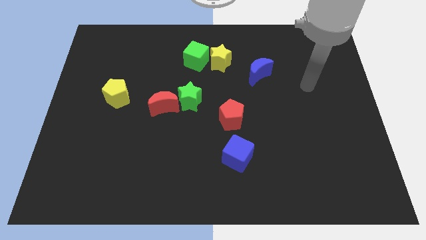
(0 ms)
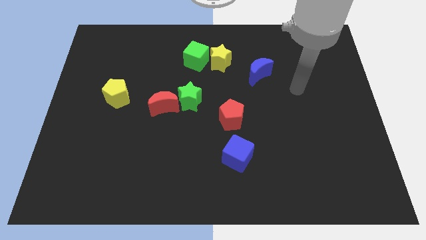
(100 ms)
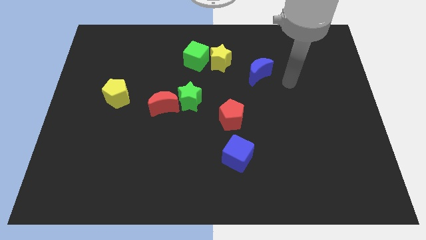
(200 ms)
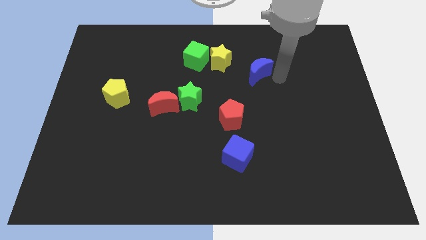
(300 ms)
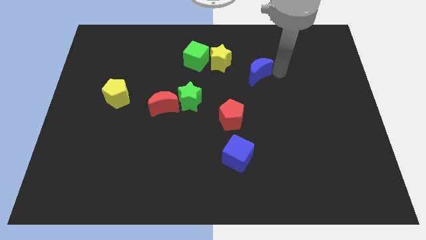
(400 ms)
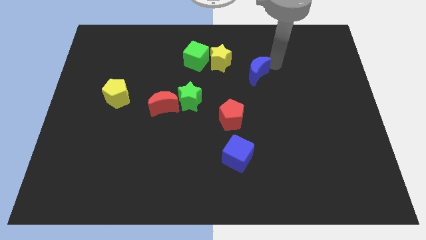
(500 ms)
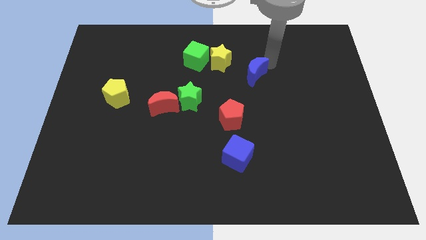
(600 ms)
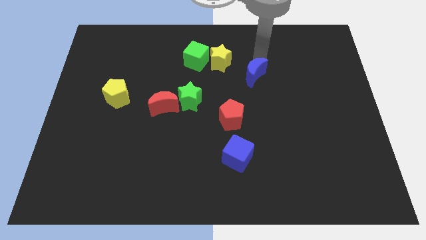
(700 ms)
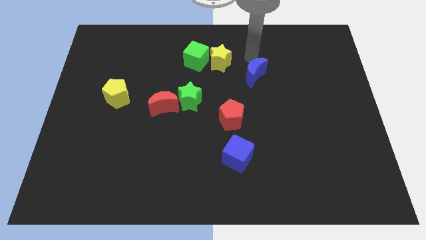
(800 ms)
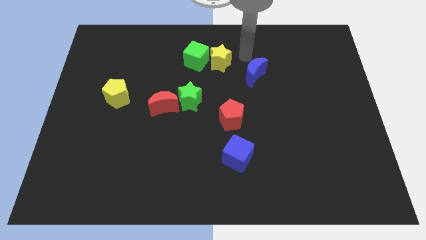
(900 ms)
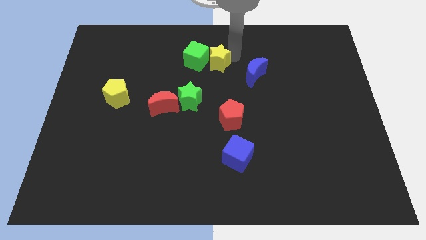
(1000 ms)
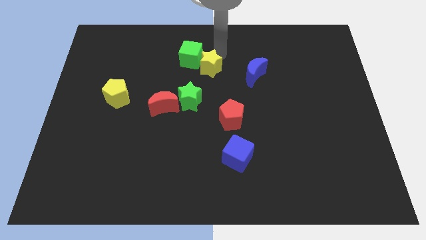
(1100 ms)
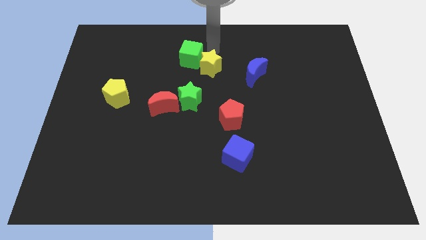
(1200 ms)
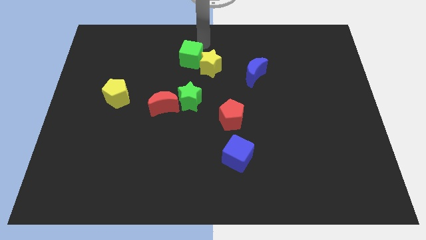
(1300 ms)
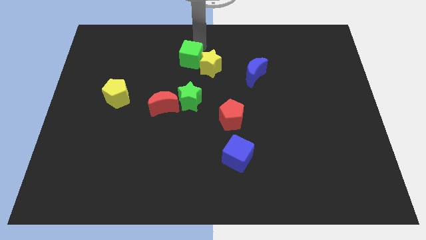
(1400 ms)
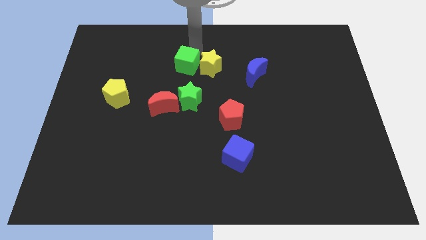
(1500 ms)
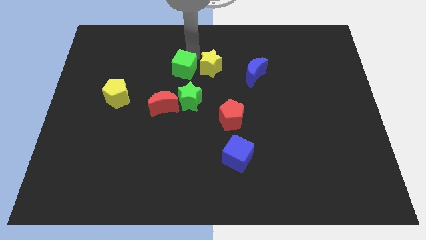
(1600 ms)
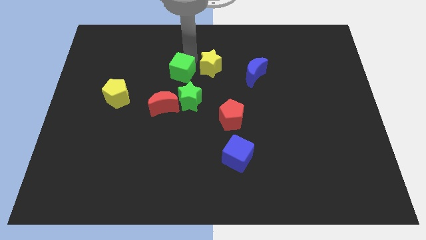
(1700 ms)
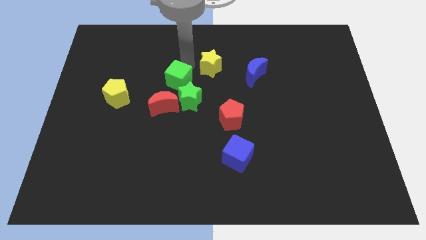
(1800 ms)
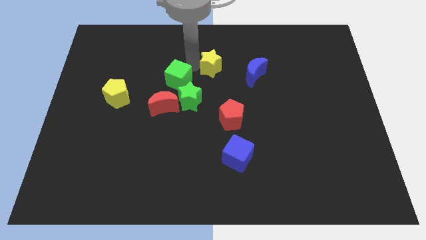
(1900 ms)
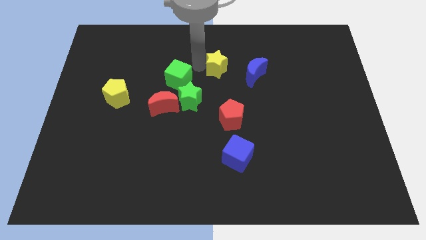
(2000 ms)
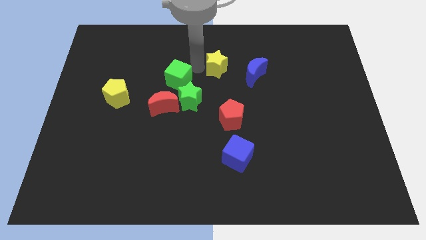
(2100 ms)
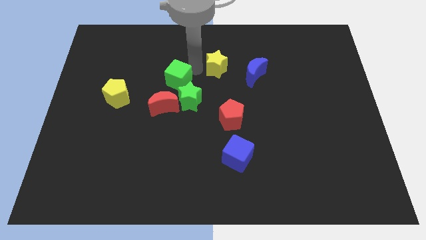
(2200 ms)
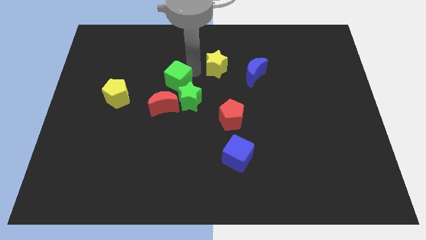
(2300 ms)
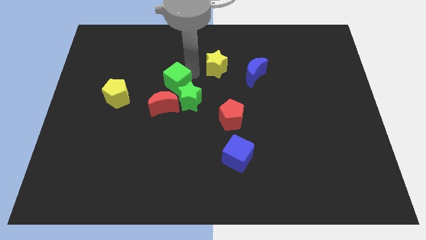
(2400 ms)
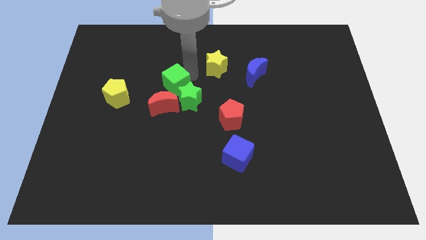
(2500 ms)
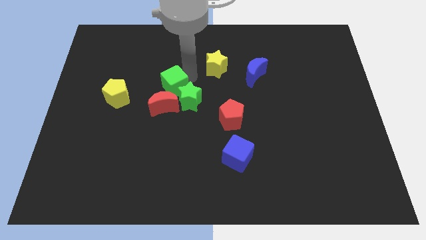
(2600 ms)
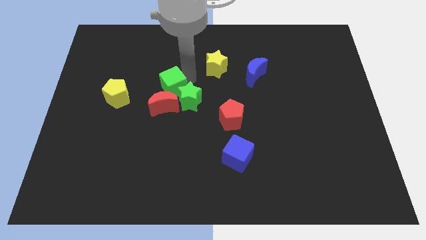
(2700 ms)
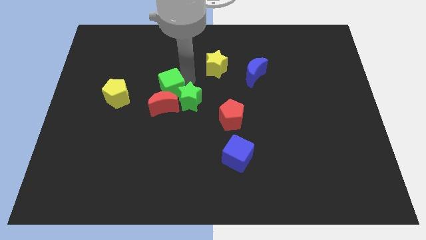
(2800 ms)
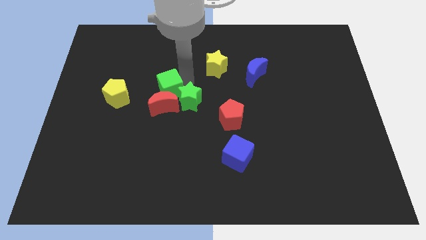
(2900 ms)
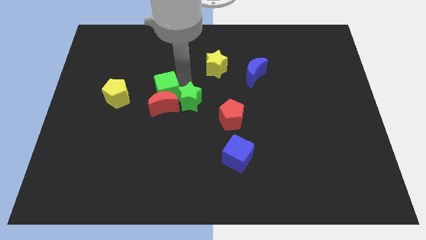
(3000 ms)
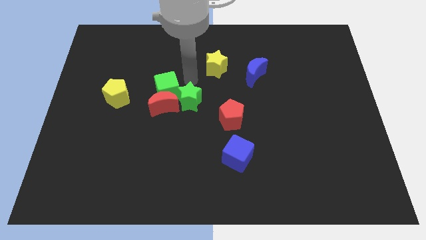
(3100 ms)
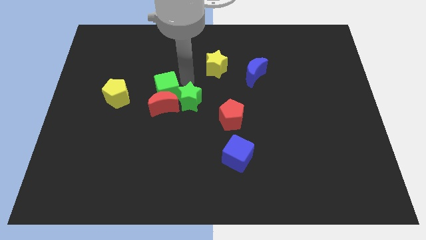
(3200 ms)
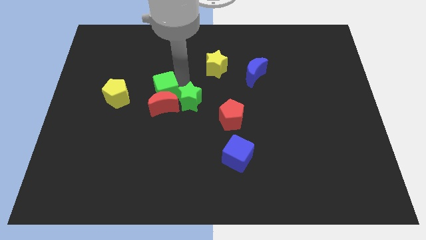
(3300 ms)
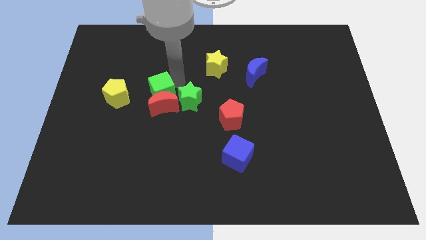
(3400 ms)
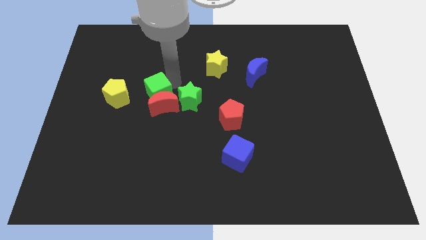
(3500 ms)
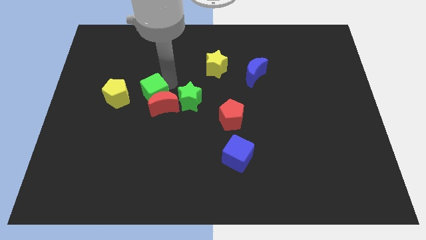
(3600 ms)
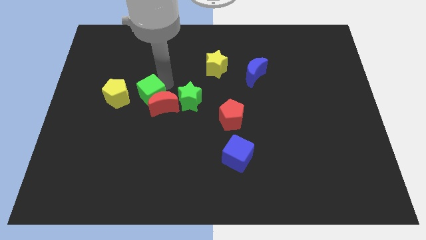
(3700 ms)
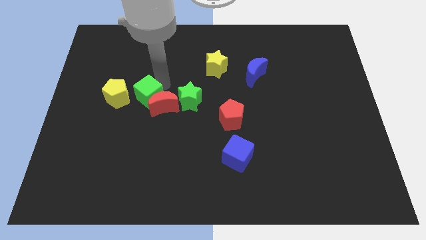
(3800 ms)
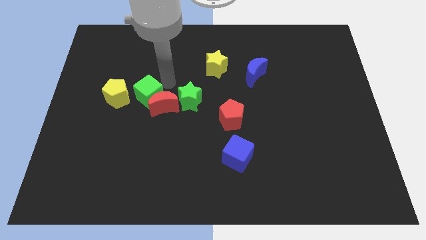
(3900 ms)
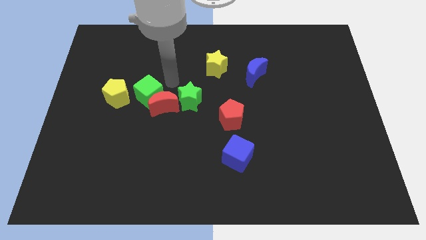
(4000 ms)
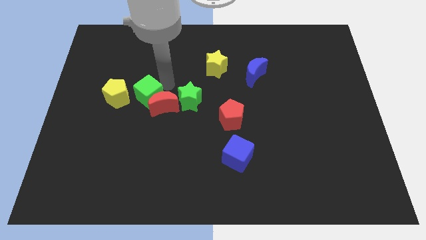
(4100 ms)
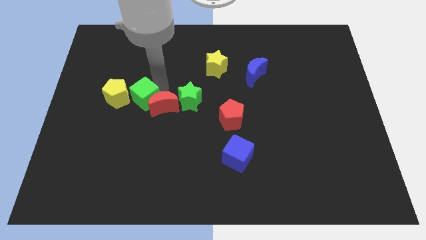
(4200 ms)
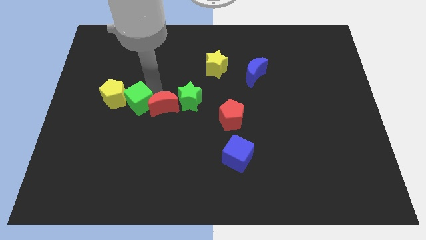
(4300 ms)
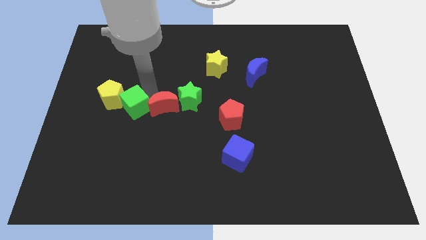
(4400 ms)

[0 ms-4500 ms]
slide the green cube downwards and to the left diagonally

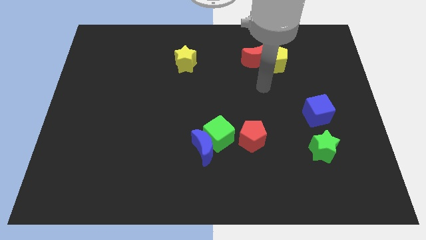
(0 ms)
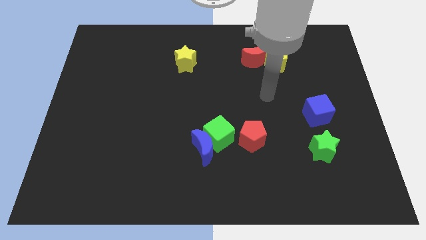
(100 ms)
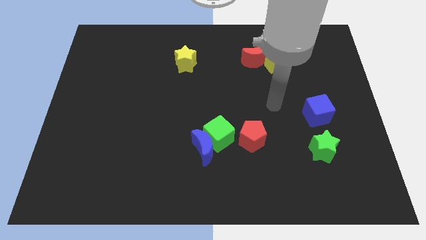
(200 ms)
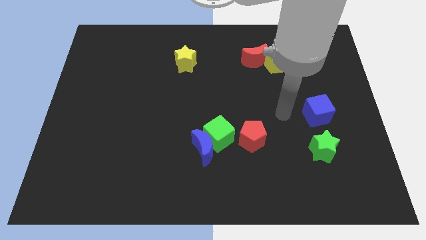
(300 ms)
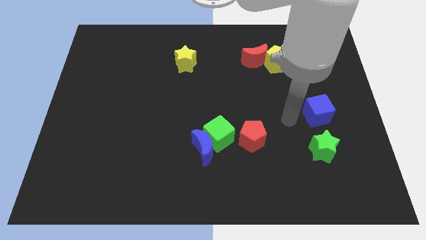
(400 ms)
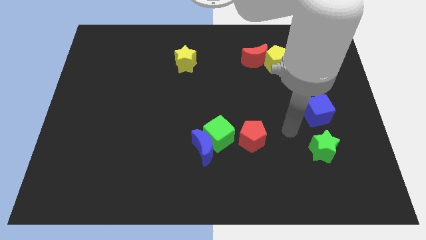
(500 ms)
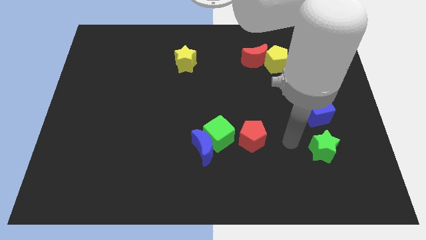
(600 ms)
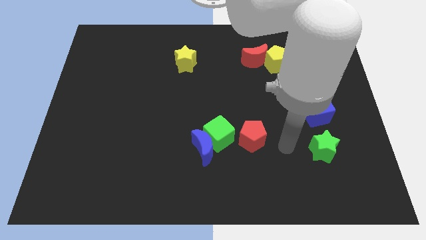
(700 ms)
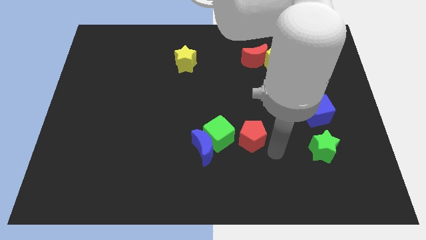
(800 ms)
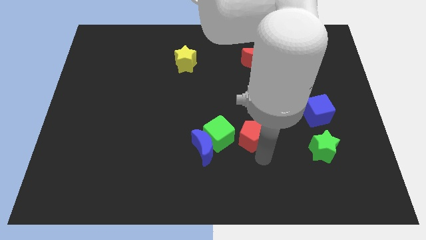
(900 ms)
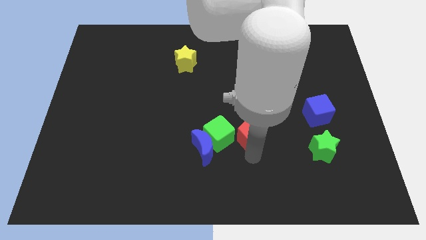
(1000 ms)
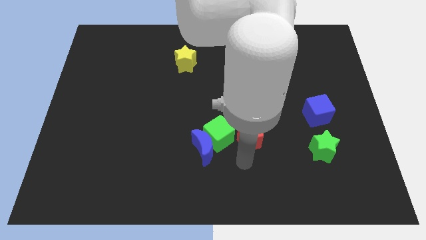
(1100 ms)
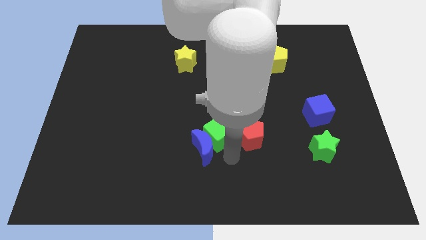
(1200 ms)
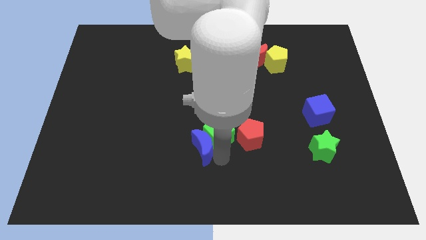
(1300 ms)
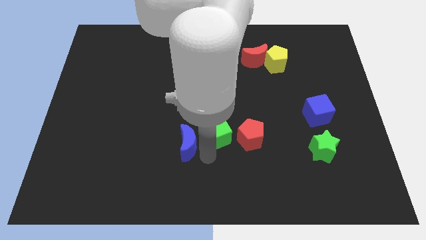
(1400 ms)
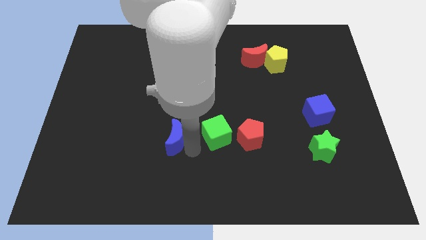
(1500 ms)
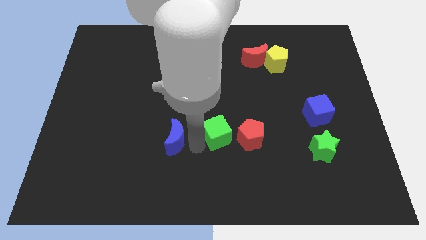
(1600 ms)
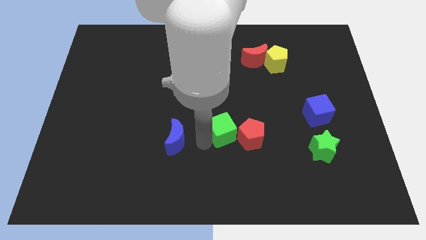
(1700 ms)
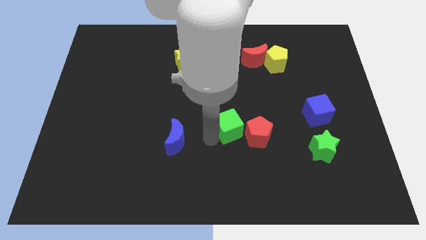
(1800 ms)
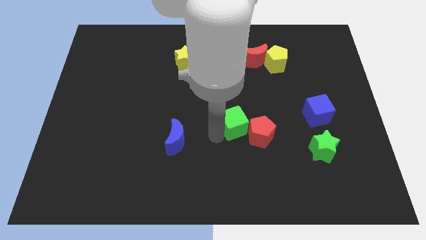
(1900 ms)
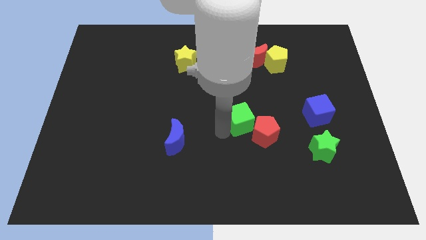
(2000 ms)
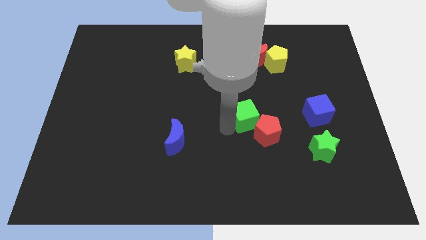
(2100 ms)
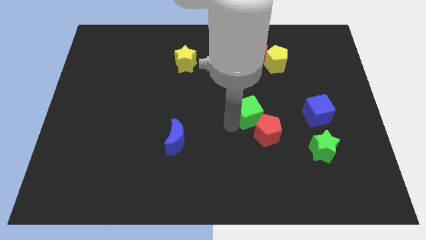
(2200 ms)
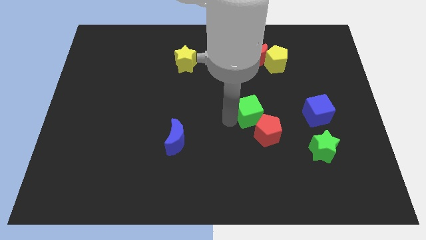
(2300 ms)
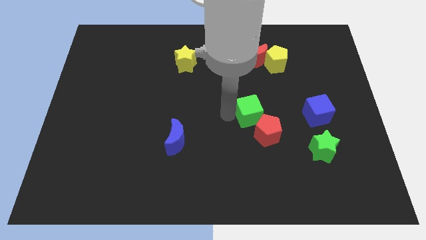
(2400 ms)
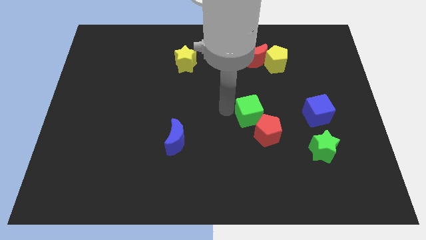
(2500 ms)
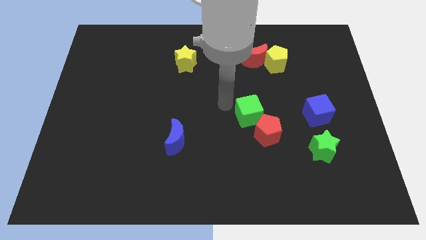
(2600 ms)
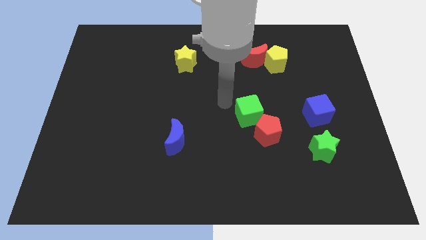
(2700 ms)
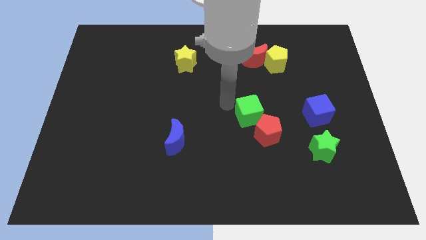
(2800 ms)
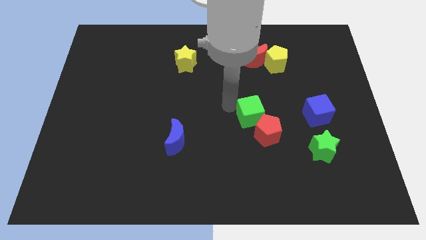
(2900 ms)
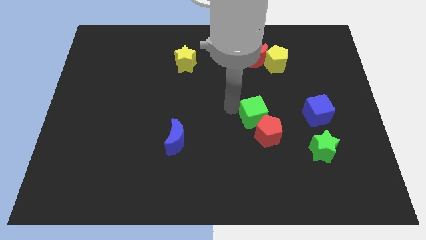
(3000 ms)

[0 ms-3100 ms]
push the green cube right somewhat

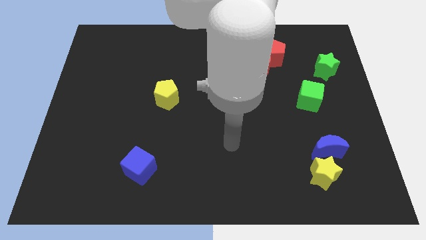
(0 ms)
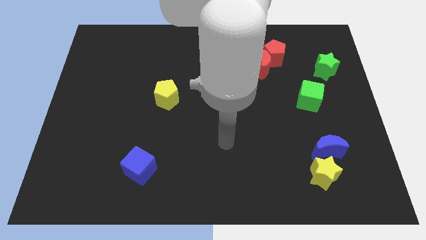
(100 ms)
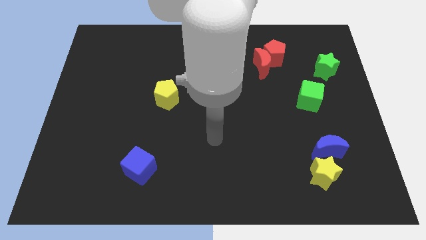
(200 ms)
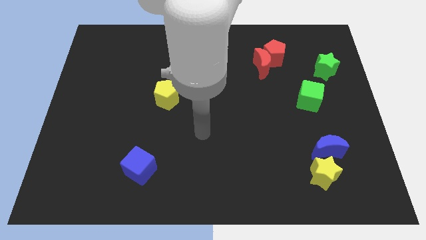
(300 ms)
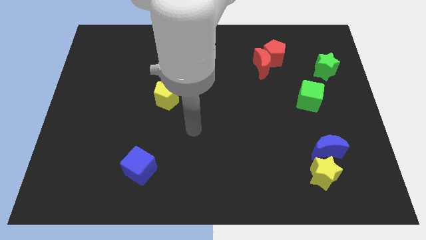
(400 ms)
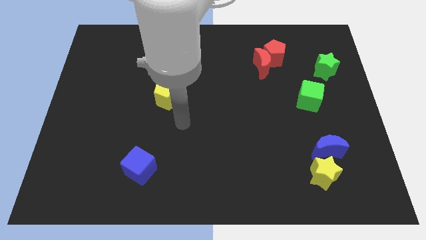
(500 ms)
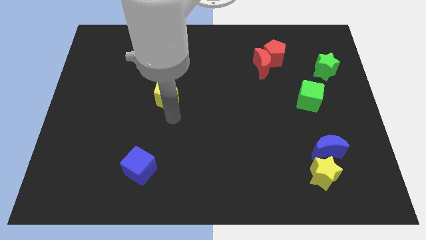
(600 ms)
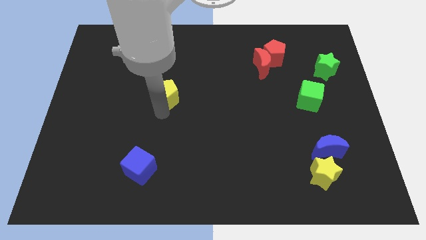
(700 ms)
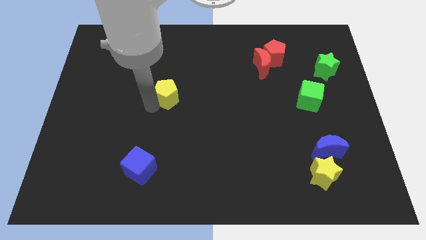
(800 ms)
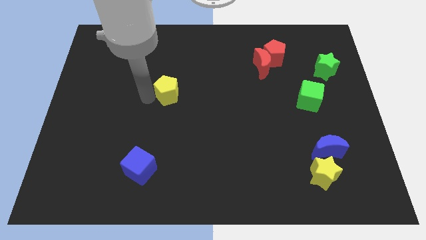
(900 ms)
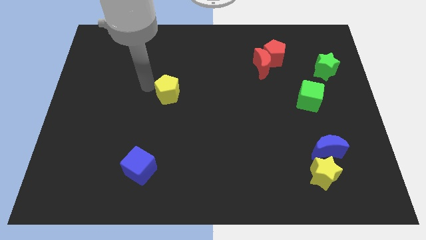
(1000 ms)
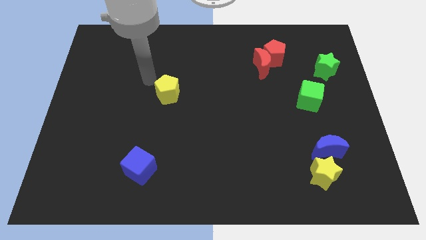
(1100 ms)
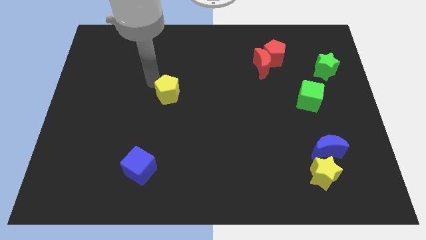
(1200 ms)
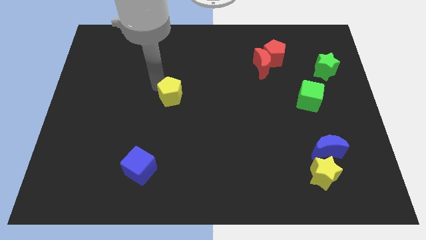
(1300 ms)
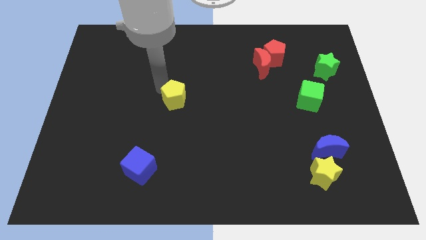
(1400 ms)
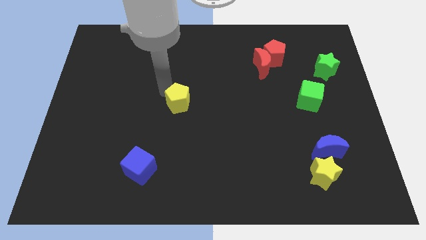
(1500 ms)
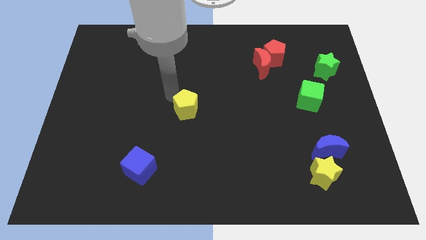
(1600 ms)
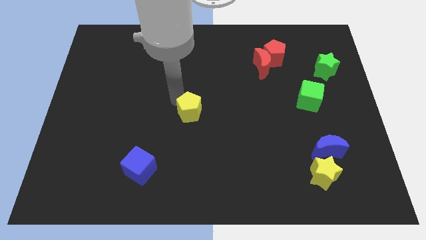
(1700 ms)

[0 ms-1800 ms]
slightly move the yellow pentagon down and then to the right
